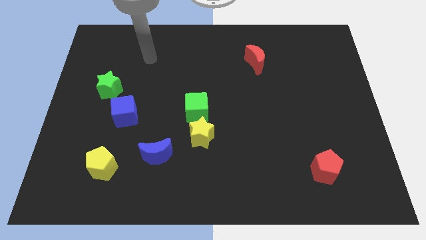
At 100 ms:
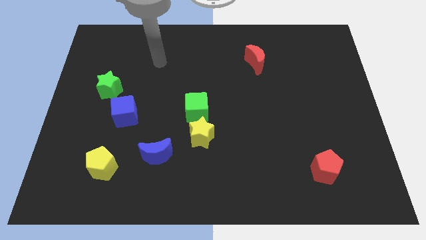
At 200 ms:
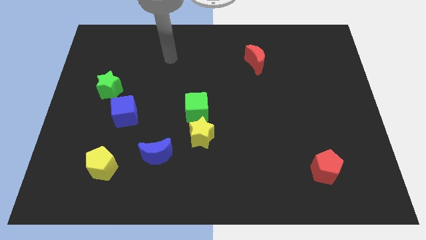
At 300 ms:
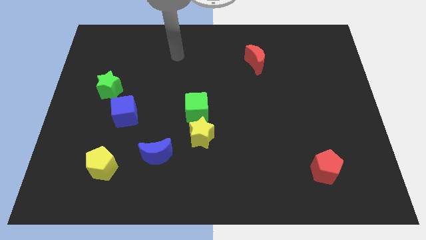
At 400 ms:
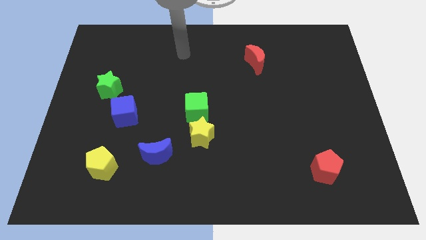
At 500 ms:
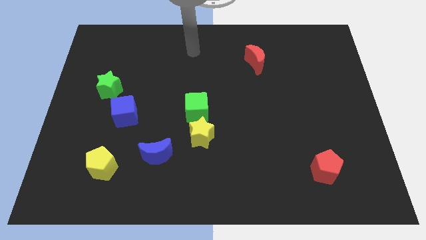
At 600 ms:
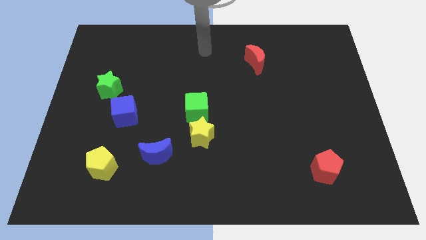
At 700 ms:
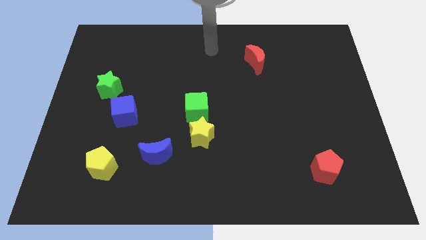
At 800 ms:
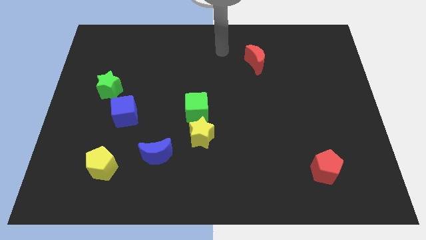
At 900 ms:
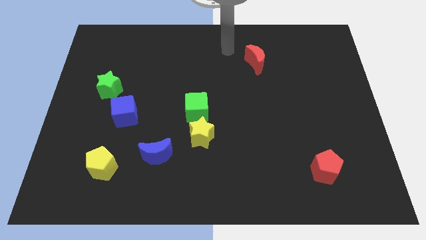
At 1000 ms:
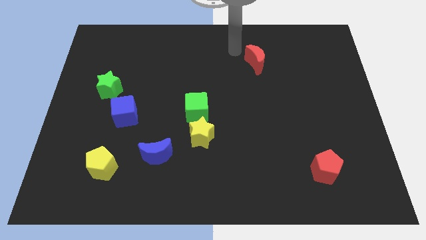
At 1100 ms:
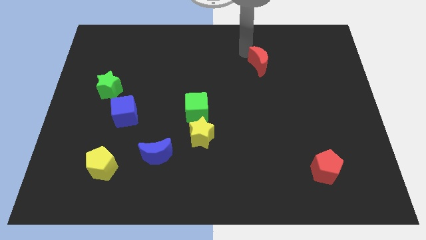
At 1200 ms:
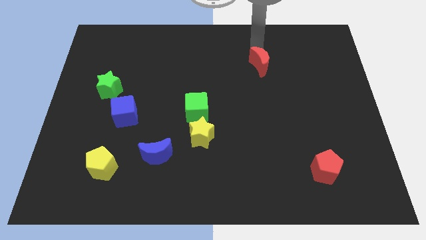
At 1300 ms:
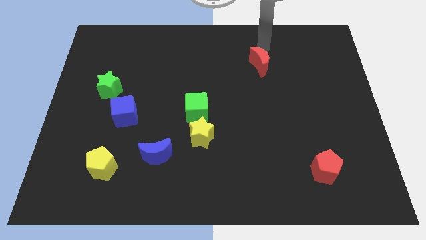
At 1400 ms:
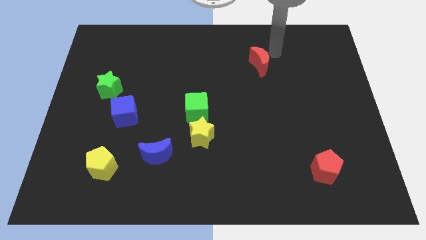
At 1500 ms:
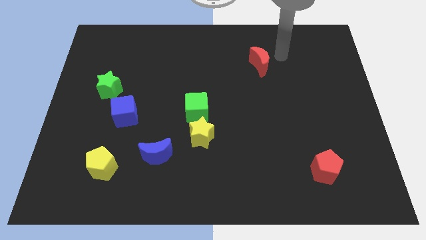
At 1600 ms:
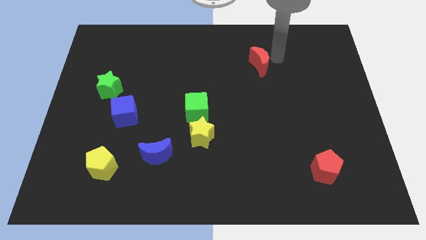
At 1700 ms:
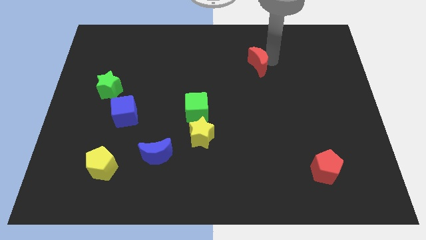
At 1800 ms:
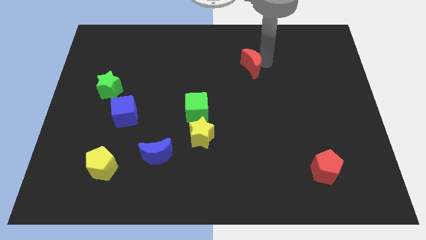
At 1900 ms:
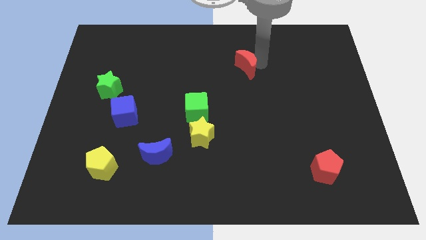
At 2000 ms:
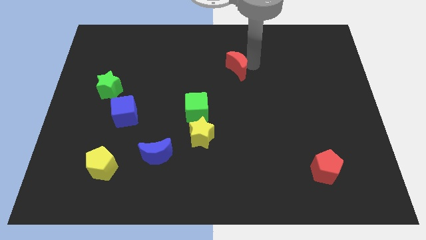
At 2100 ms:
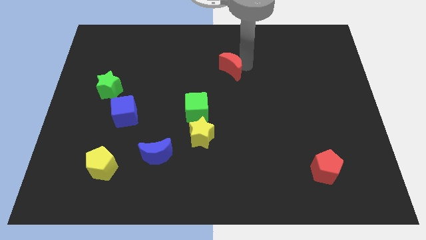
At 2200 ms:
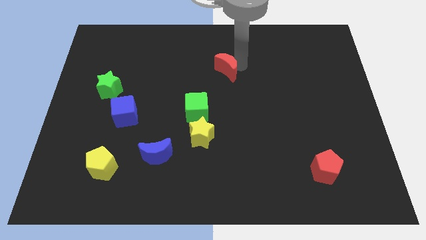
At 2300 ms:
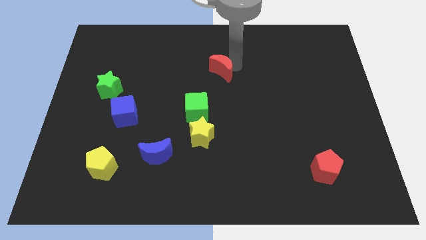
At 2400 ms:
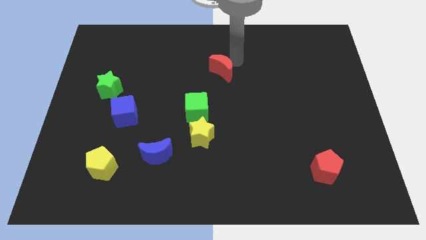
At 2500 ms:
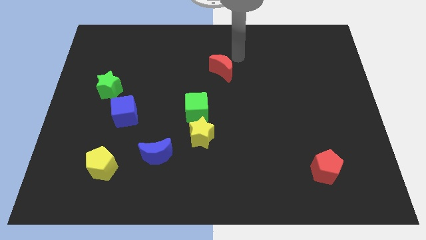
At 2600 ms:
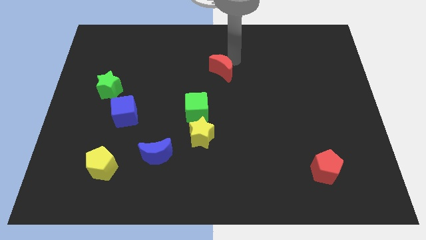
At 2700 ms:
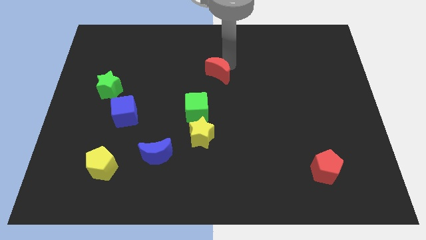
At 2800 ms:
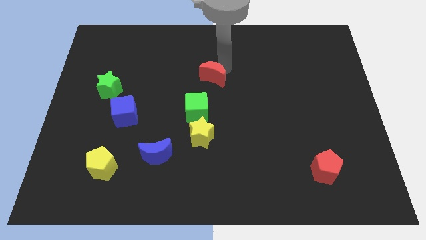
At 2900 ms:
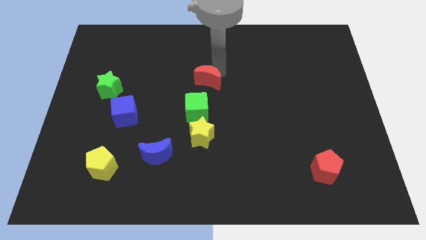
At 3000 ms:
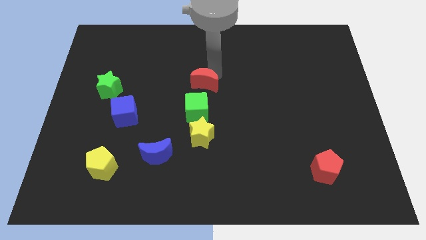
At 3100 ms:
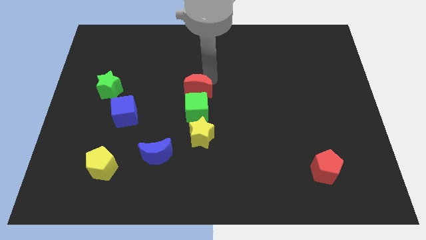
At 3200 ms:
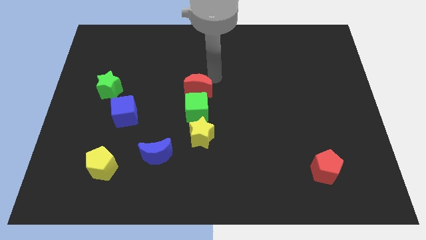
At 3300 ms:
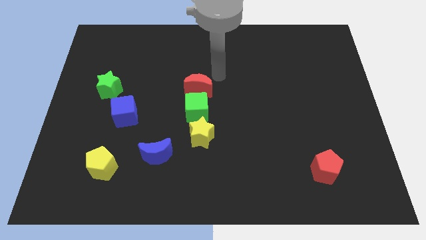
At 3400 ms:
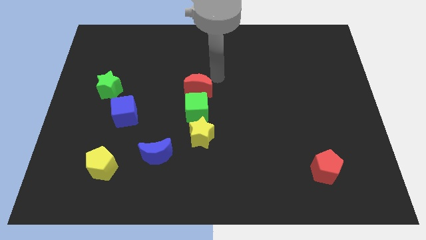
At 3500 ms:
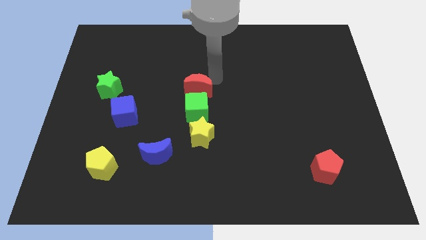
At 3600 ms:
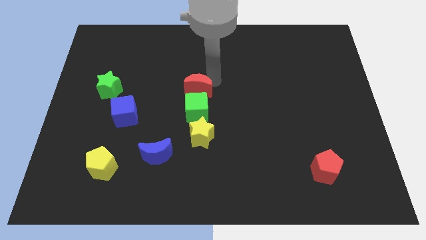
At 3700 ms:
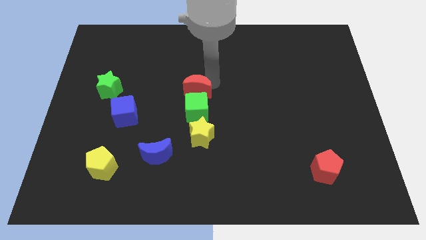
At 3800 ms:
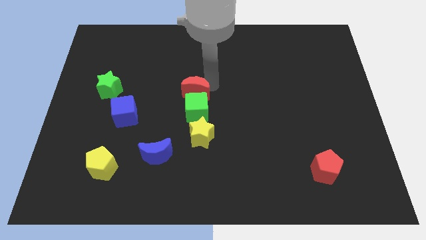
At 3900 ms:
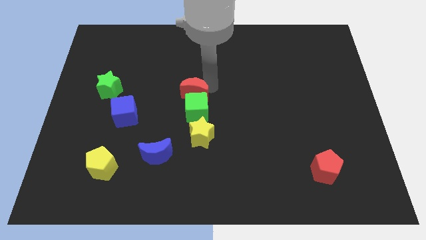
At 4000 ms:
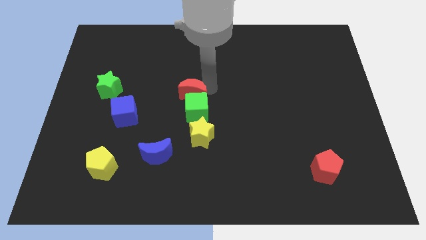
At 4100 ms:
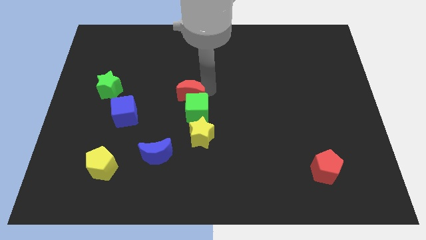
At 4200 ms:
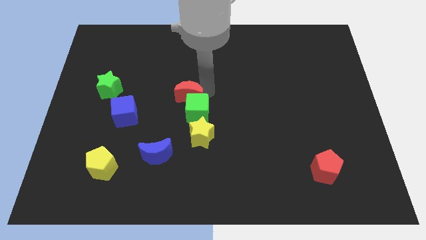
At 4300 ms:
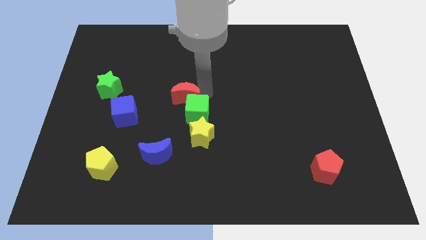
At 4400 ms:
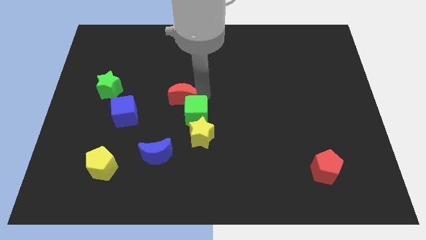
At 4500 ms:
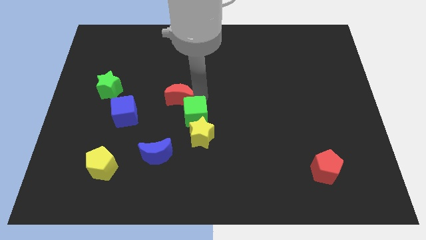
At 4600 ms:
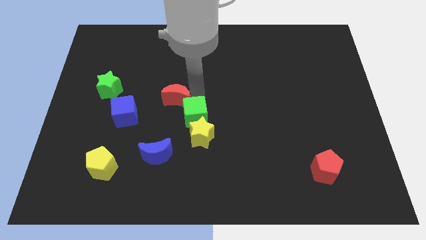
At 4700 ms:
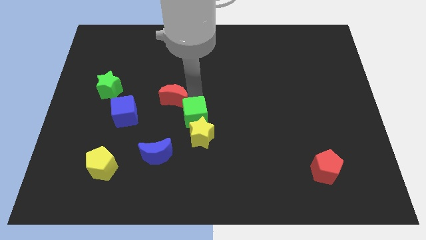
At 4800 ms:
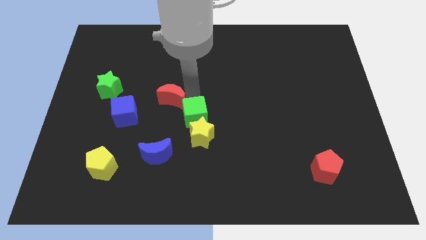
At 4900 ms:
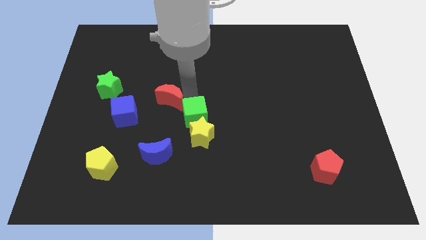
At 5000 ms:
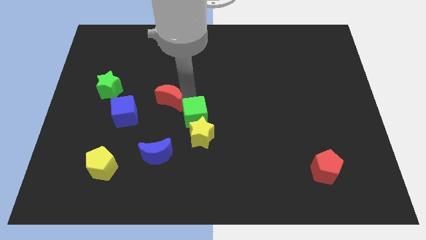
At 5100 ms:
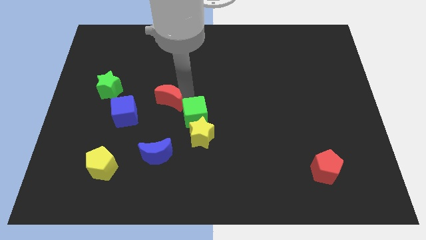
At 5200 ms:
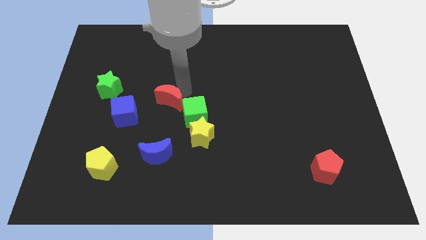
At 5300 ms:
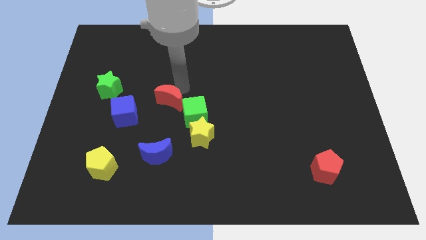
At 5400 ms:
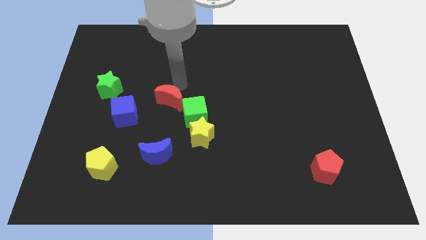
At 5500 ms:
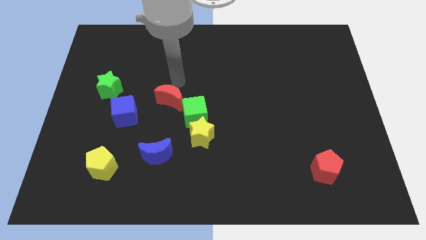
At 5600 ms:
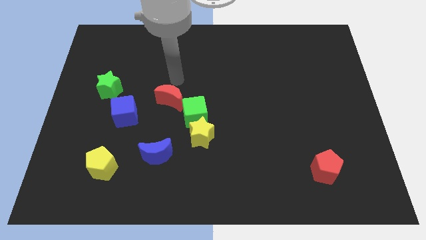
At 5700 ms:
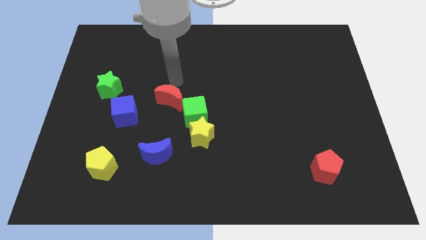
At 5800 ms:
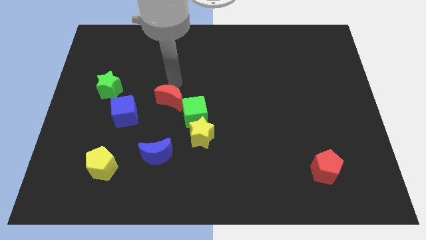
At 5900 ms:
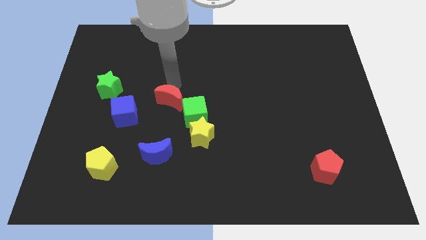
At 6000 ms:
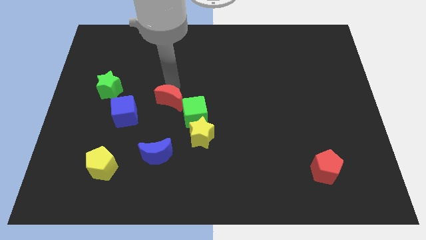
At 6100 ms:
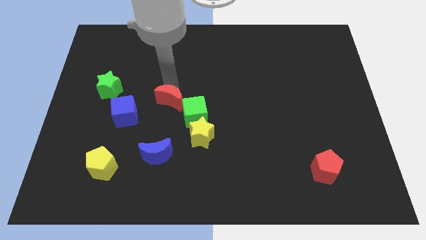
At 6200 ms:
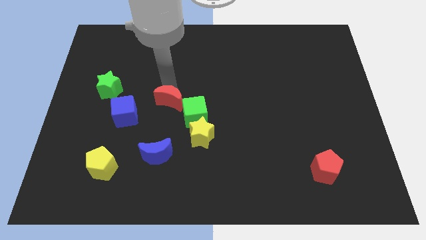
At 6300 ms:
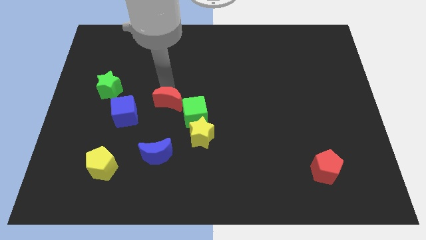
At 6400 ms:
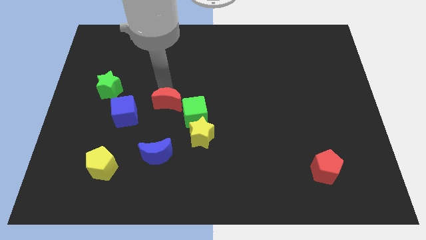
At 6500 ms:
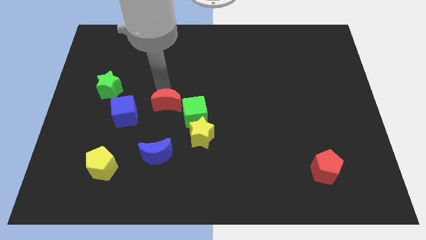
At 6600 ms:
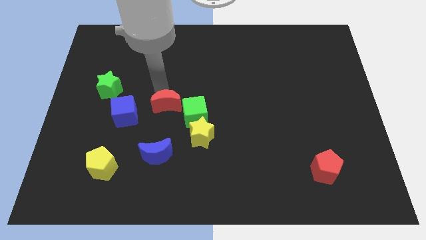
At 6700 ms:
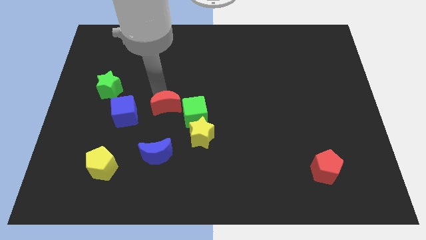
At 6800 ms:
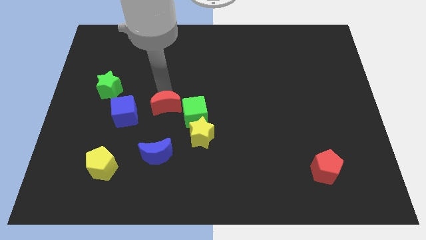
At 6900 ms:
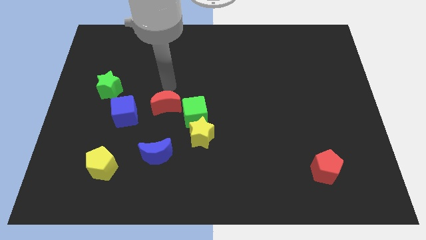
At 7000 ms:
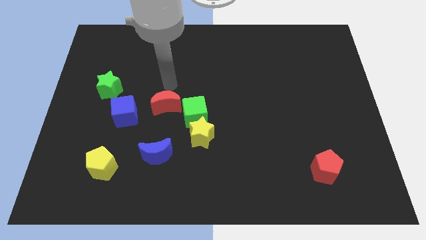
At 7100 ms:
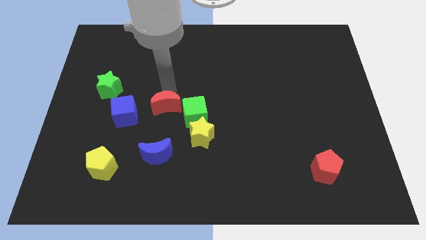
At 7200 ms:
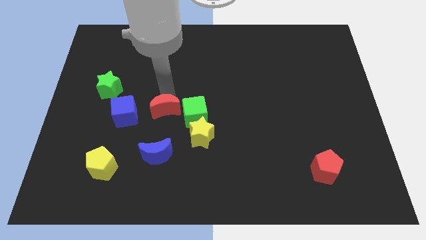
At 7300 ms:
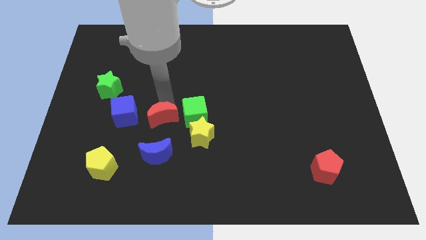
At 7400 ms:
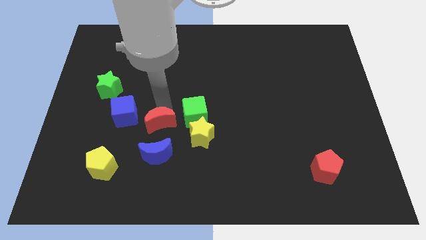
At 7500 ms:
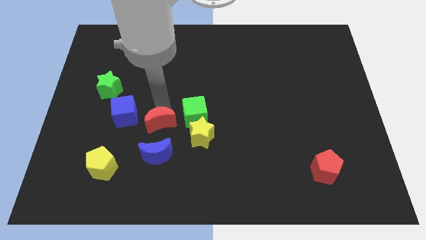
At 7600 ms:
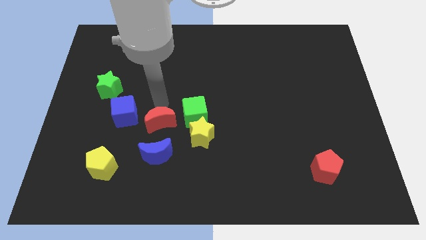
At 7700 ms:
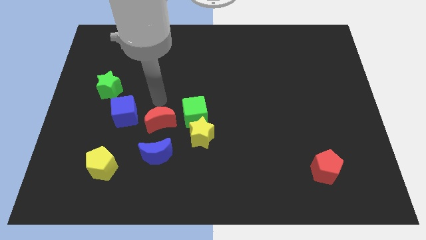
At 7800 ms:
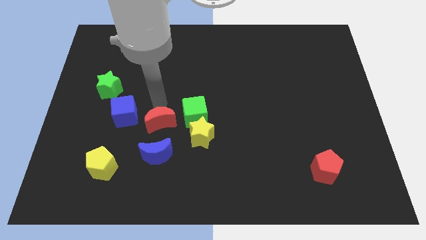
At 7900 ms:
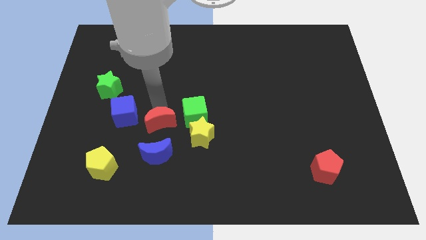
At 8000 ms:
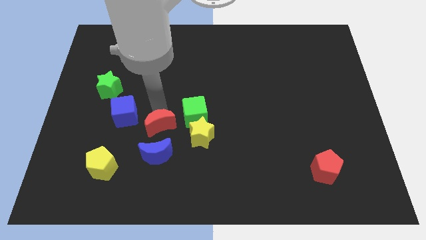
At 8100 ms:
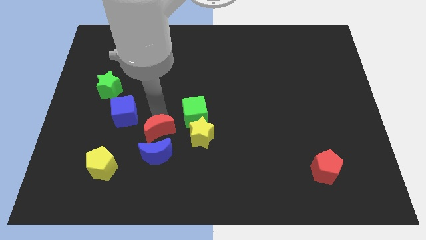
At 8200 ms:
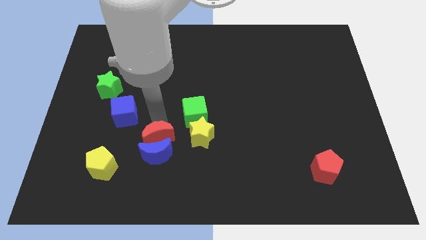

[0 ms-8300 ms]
put the red moon next to the blue moon
